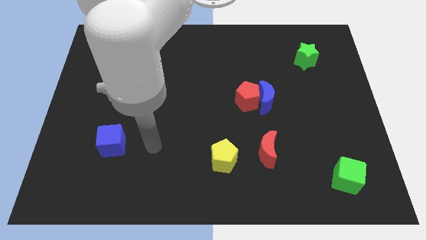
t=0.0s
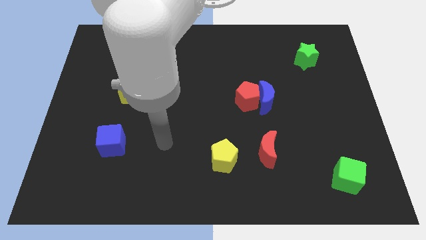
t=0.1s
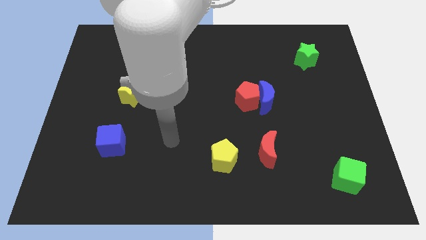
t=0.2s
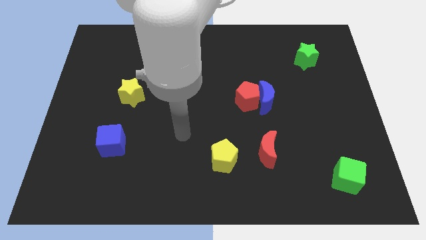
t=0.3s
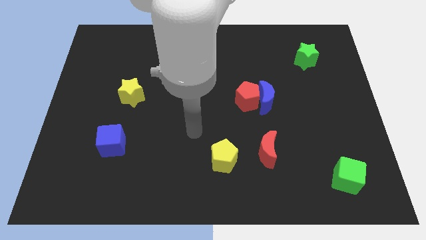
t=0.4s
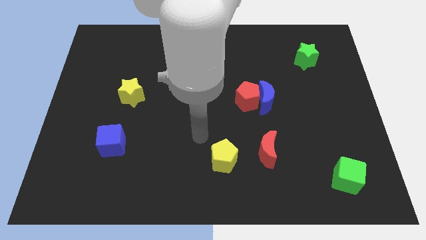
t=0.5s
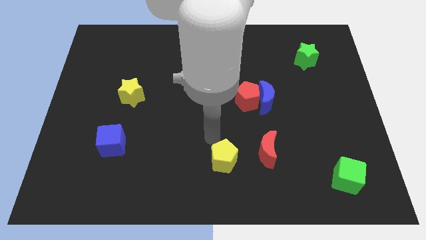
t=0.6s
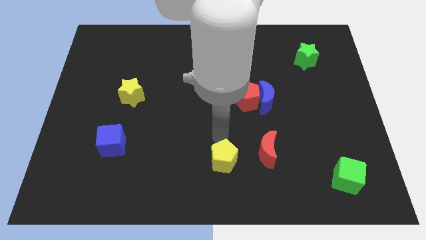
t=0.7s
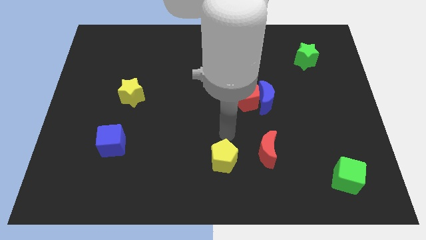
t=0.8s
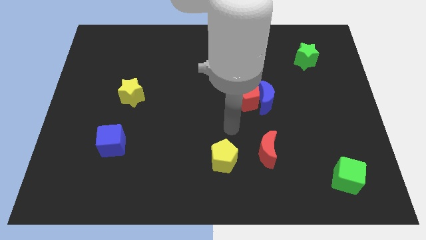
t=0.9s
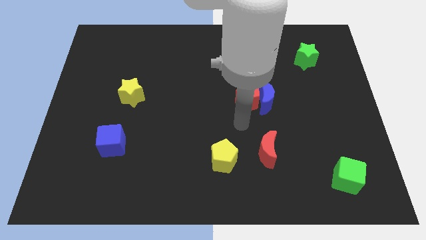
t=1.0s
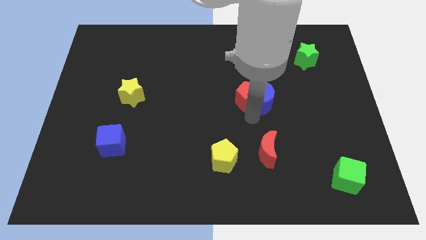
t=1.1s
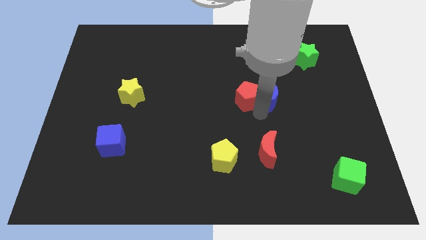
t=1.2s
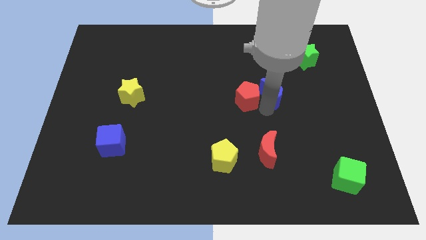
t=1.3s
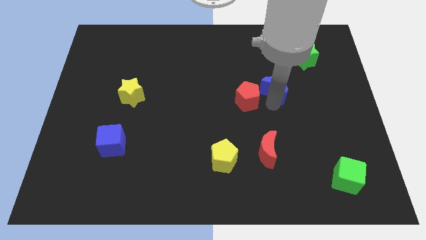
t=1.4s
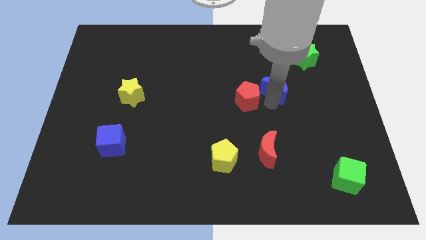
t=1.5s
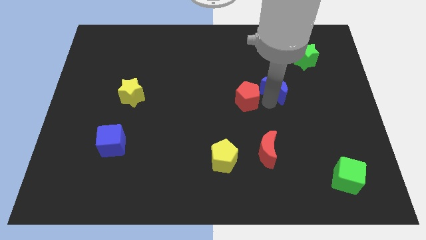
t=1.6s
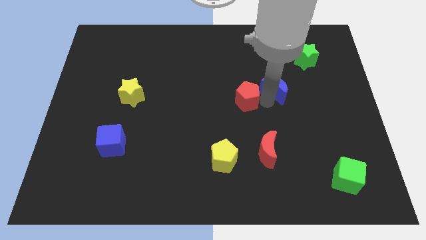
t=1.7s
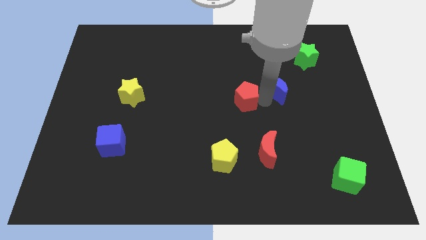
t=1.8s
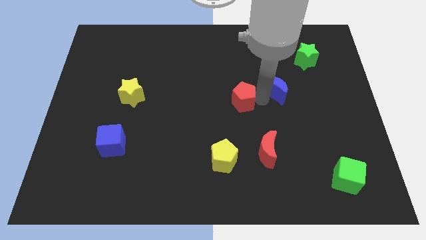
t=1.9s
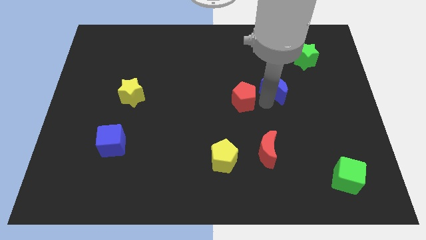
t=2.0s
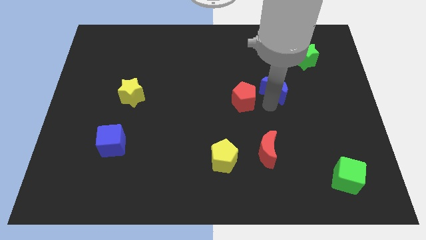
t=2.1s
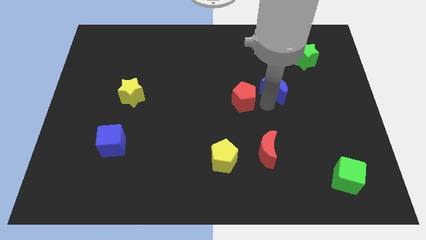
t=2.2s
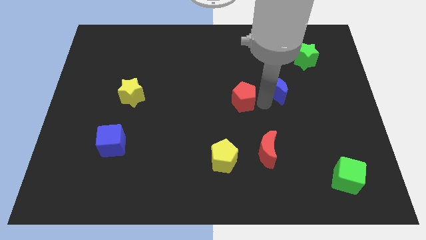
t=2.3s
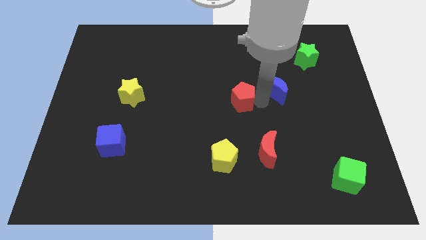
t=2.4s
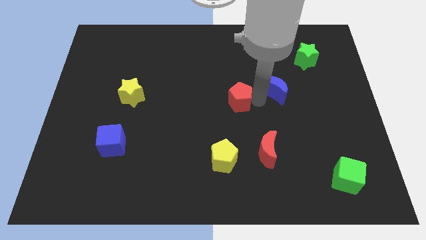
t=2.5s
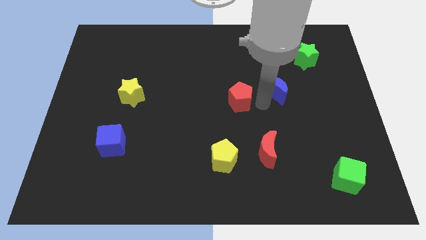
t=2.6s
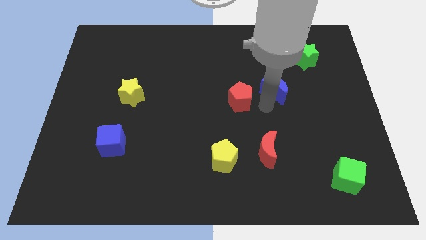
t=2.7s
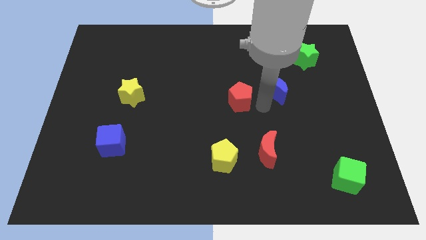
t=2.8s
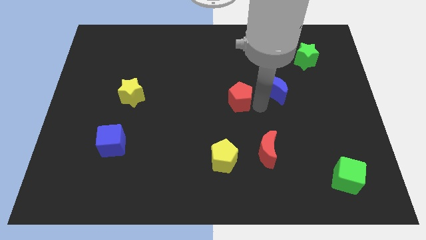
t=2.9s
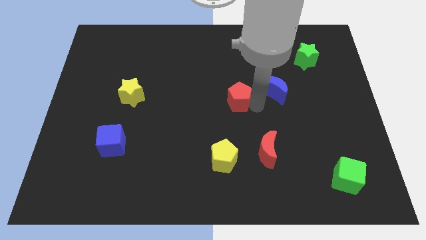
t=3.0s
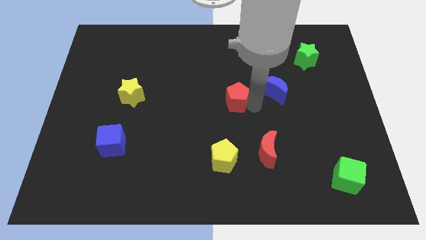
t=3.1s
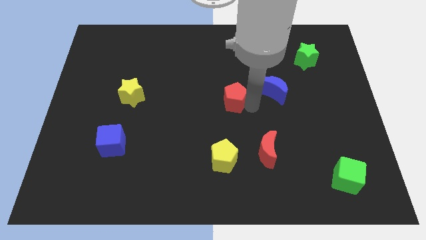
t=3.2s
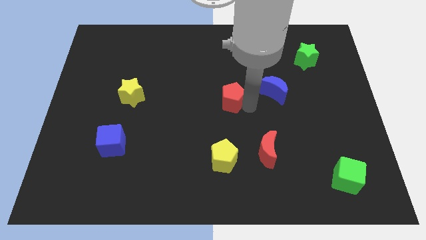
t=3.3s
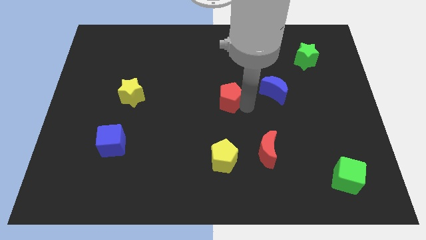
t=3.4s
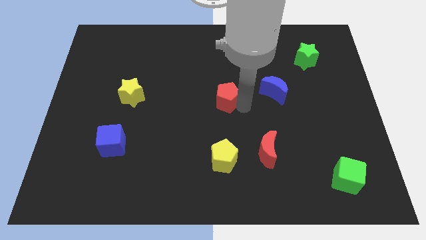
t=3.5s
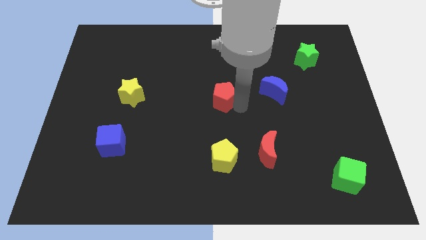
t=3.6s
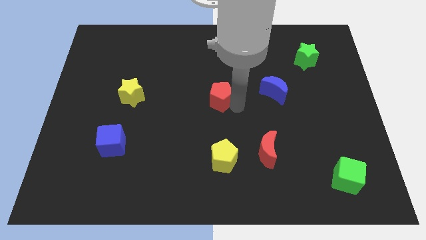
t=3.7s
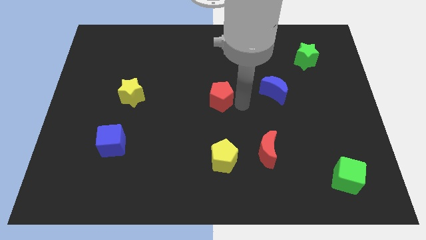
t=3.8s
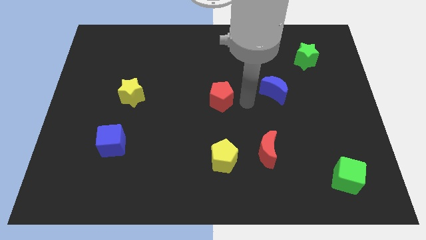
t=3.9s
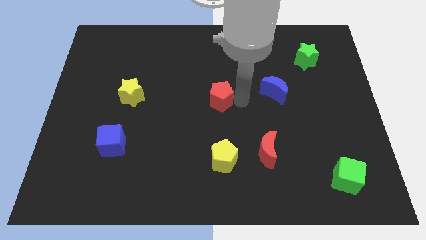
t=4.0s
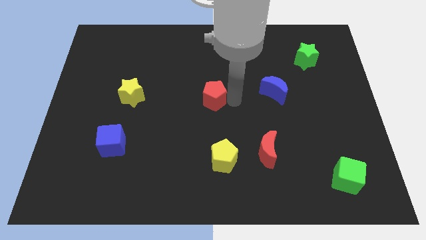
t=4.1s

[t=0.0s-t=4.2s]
push the red pentagon to the left somewhat

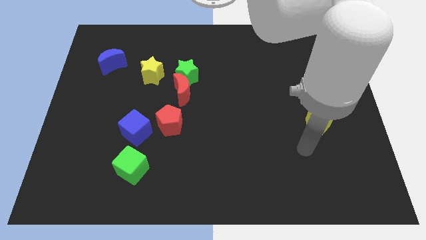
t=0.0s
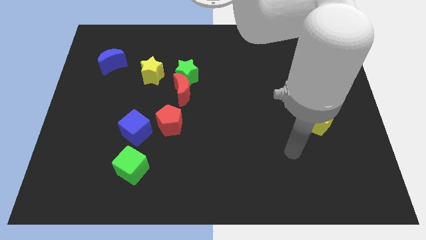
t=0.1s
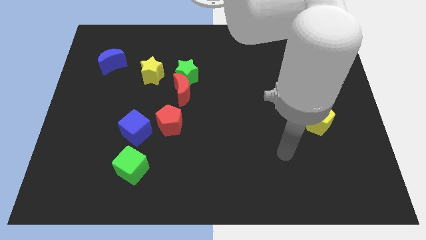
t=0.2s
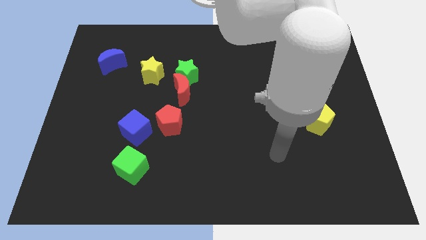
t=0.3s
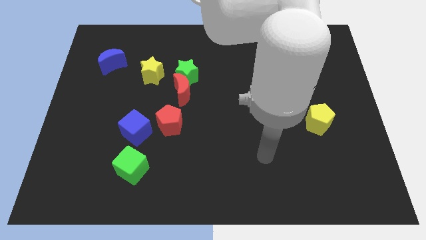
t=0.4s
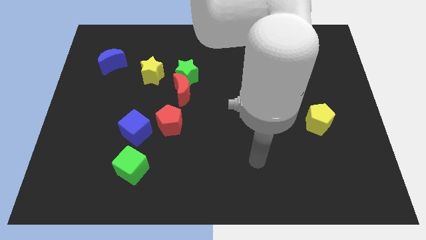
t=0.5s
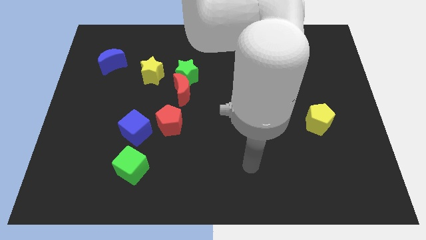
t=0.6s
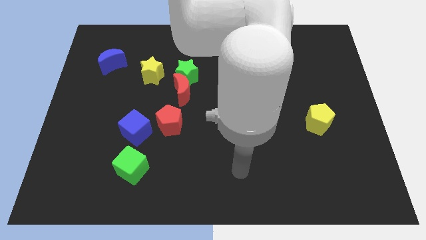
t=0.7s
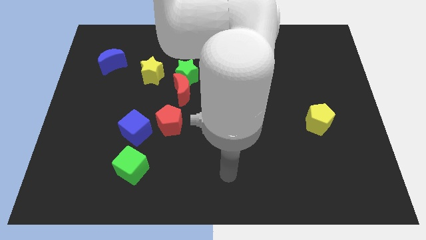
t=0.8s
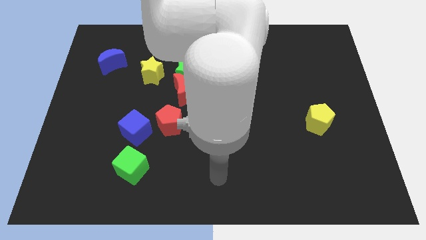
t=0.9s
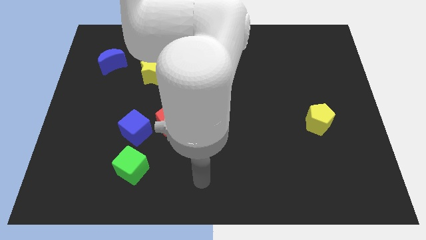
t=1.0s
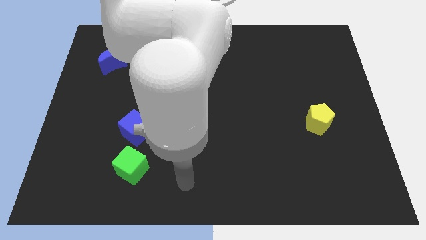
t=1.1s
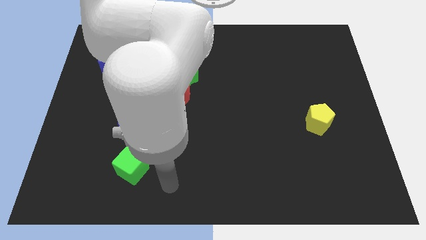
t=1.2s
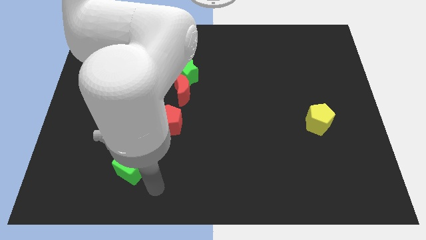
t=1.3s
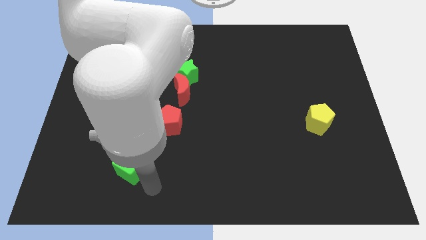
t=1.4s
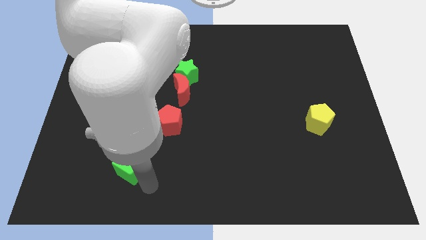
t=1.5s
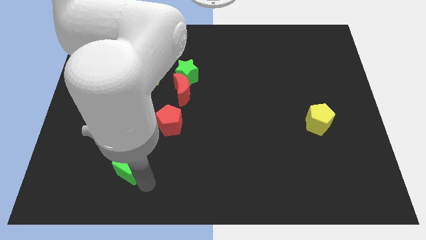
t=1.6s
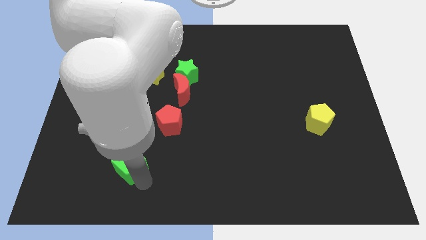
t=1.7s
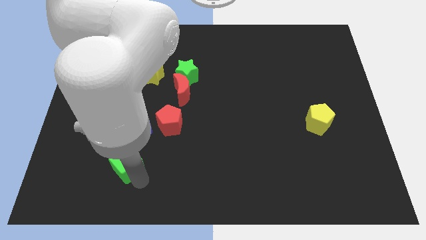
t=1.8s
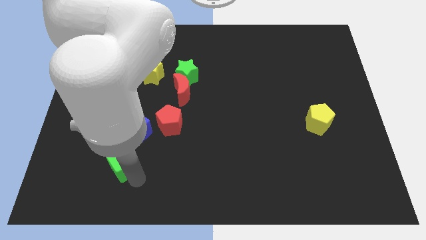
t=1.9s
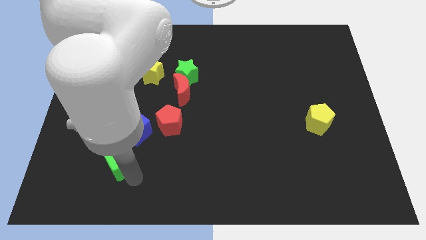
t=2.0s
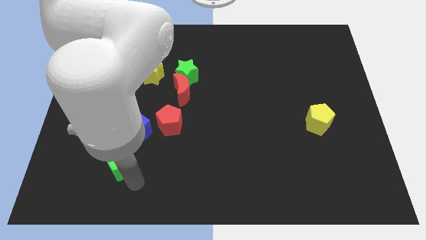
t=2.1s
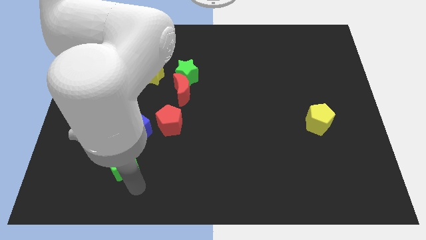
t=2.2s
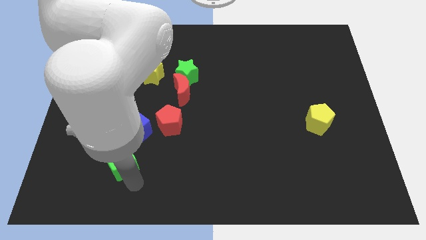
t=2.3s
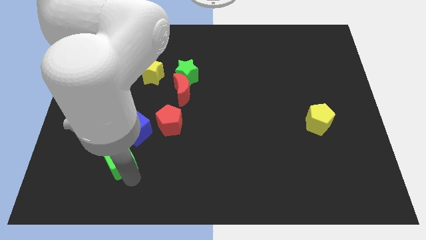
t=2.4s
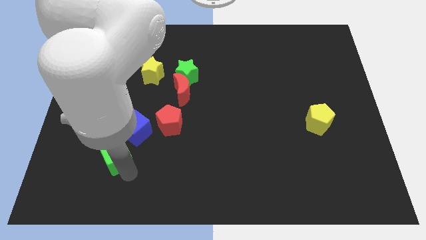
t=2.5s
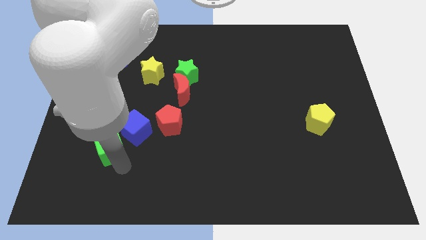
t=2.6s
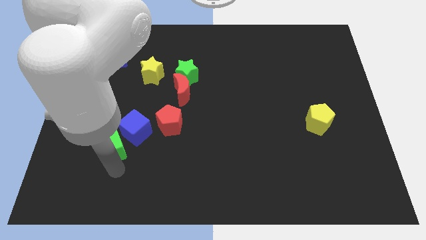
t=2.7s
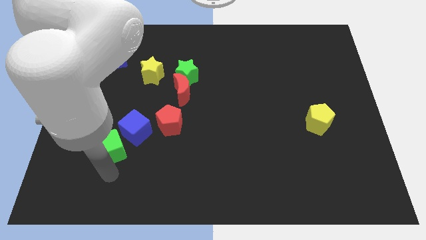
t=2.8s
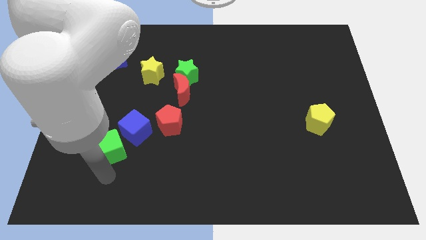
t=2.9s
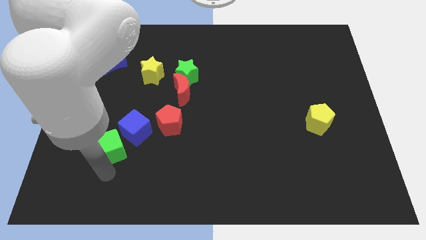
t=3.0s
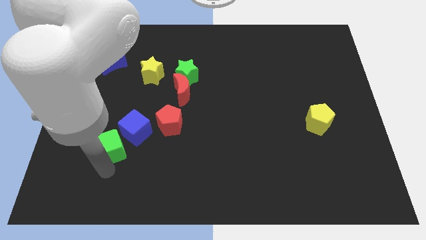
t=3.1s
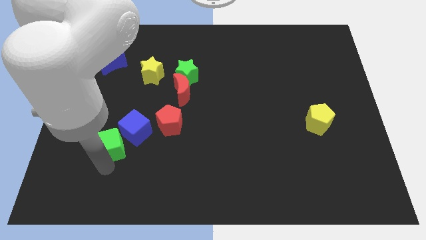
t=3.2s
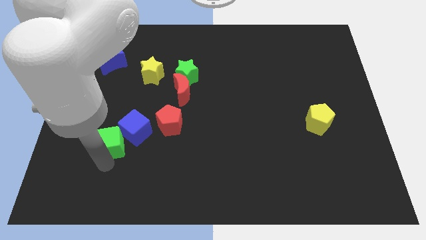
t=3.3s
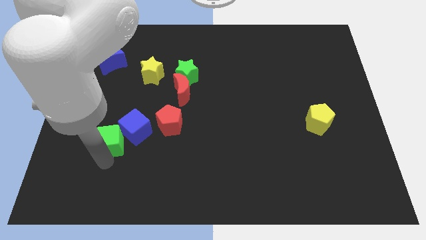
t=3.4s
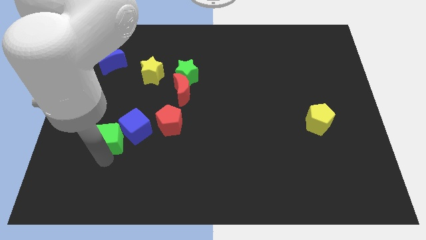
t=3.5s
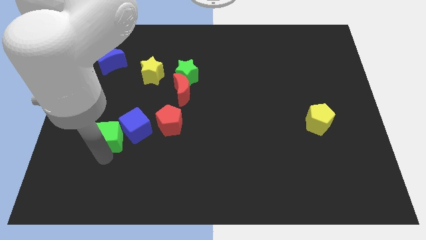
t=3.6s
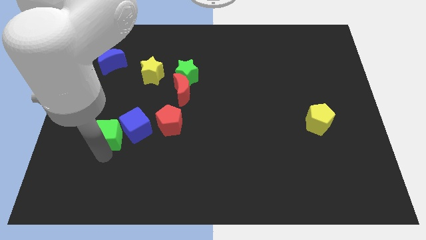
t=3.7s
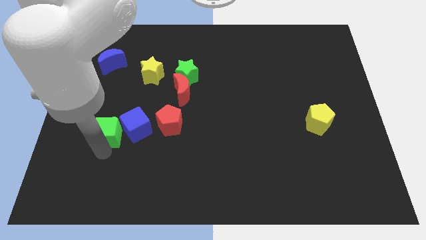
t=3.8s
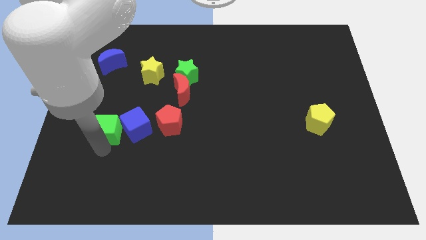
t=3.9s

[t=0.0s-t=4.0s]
slide the green cube up a little bit
